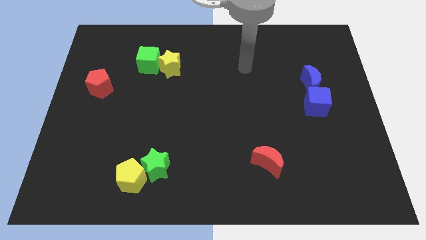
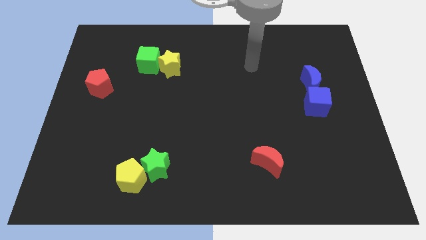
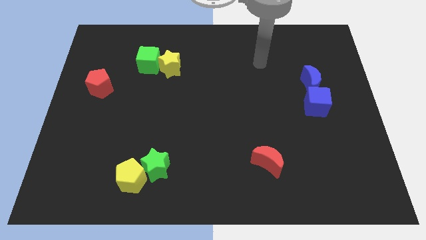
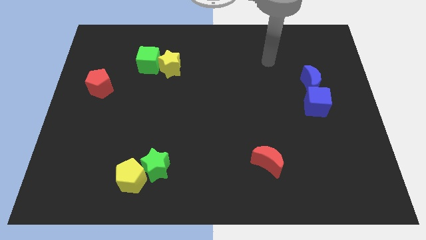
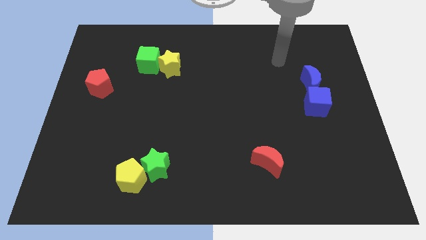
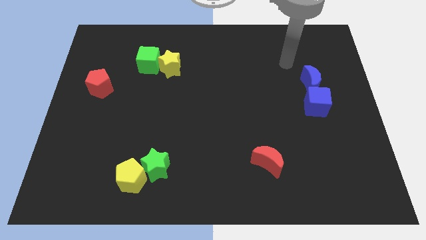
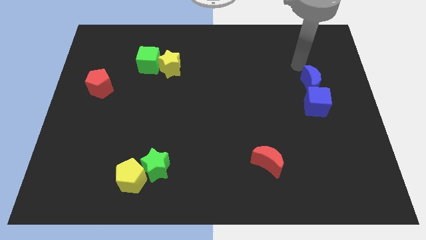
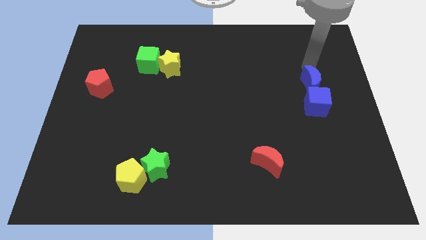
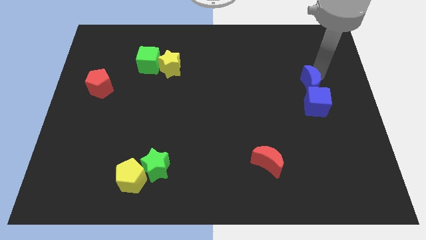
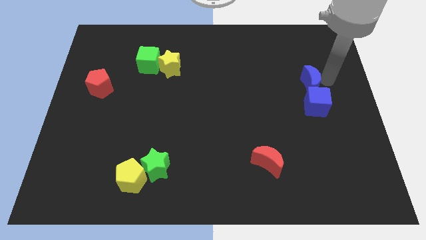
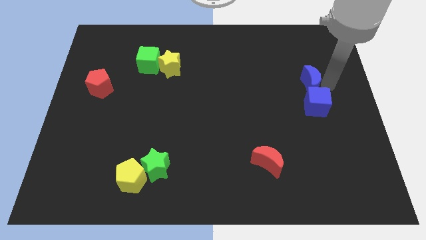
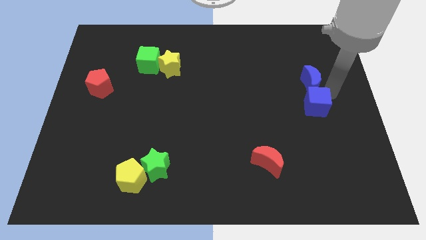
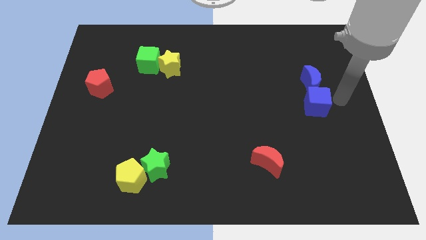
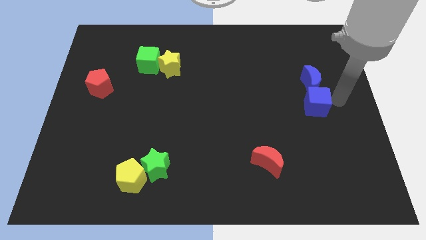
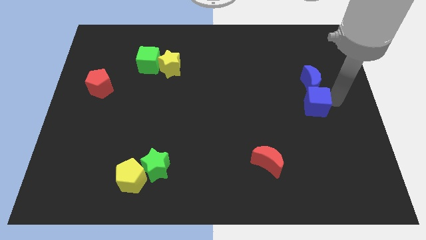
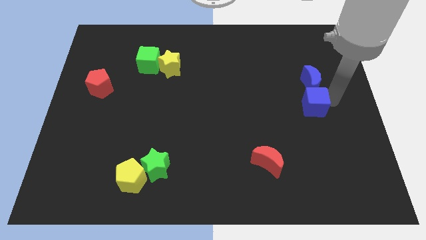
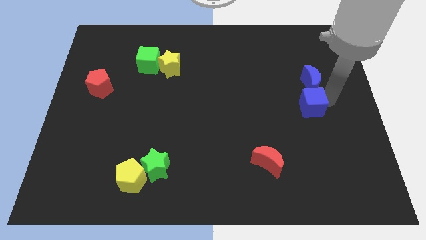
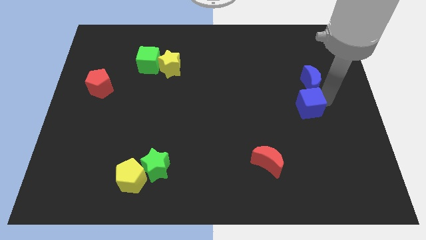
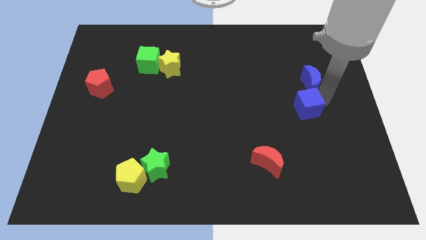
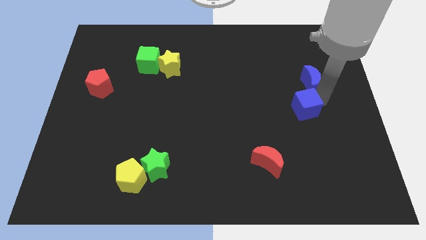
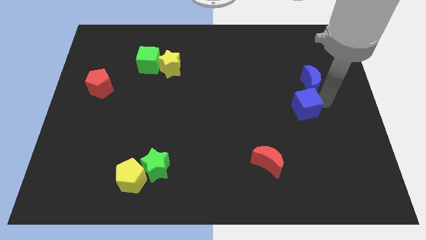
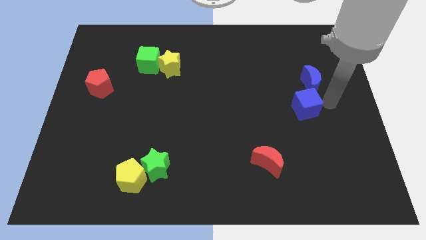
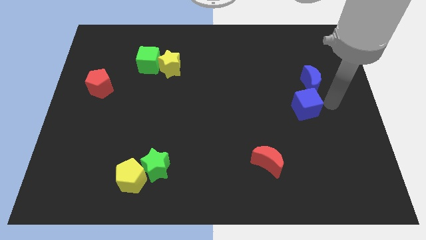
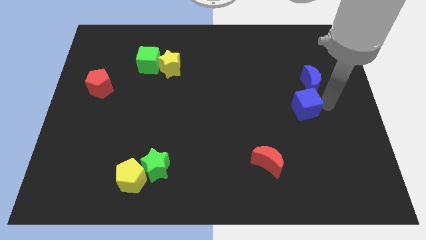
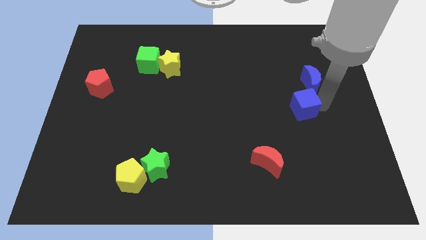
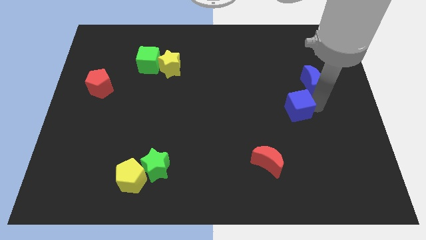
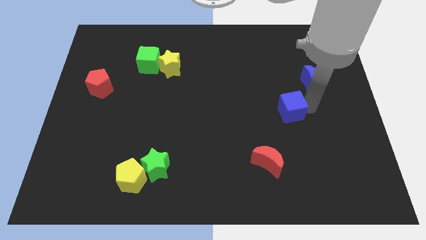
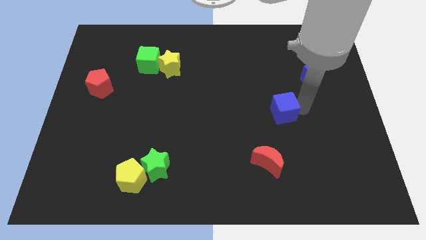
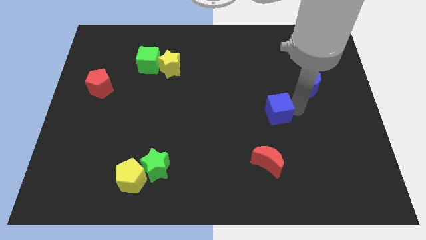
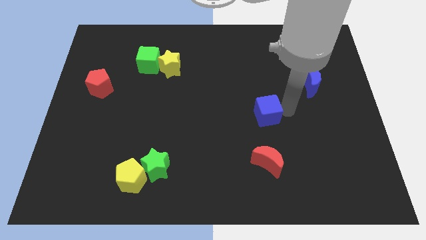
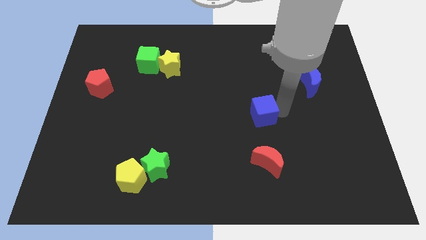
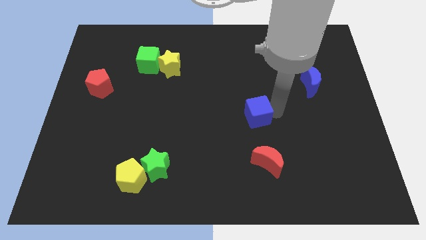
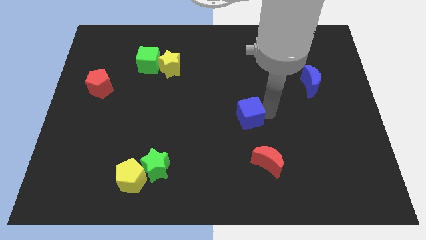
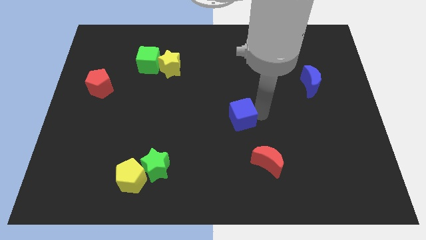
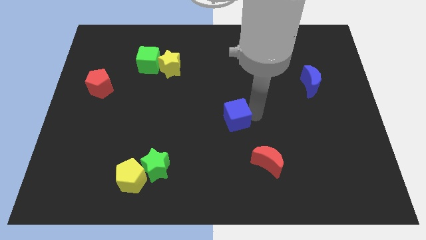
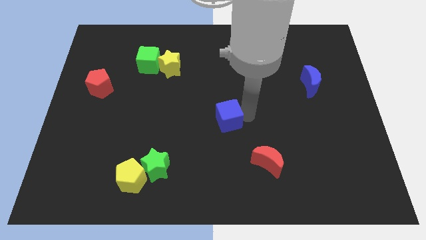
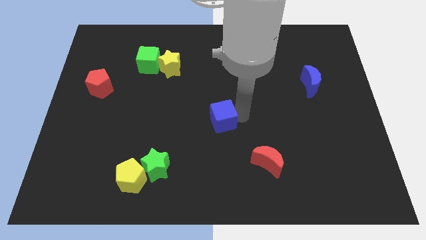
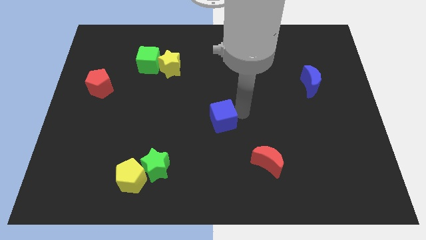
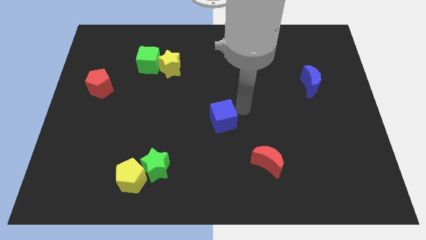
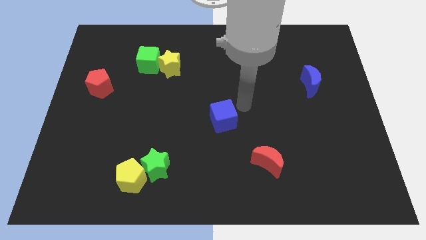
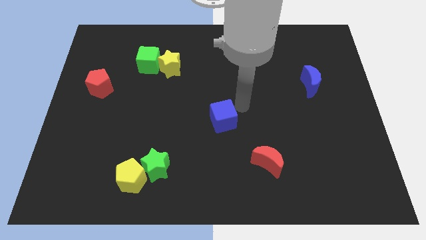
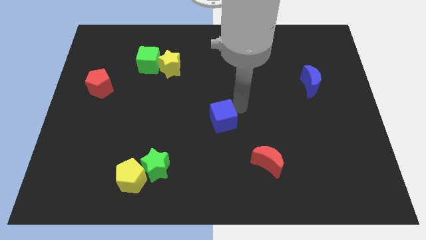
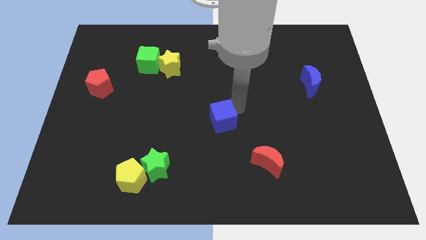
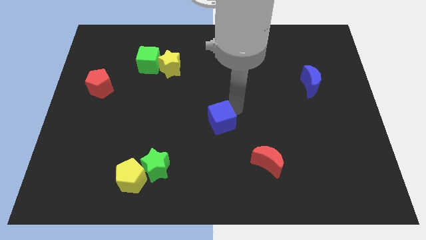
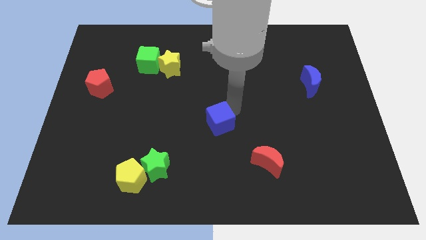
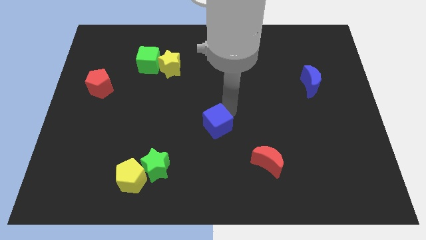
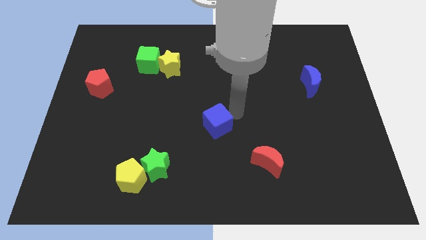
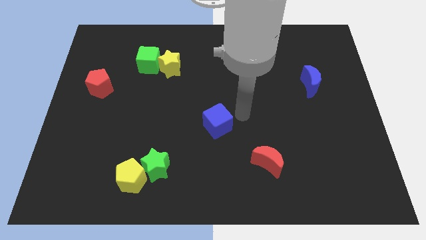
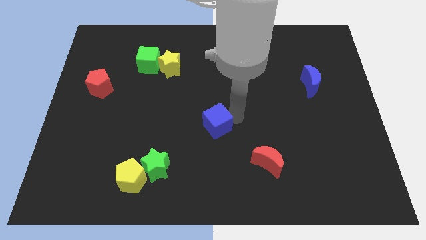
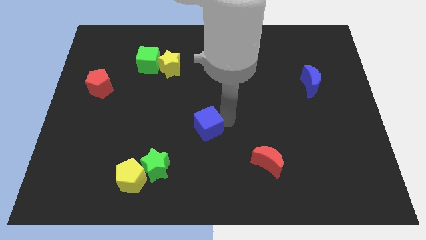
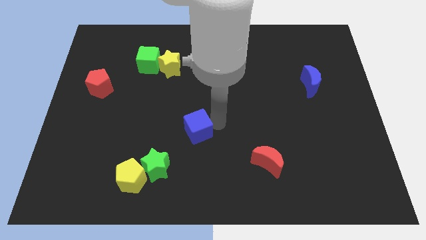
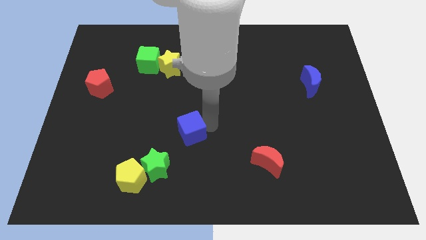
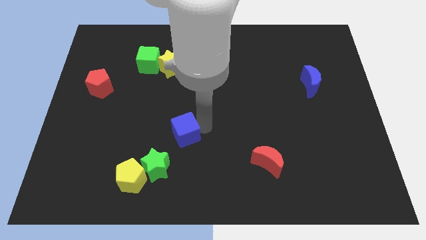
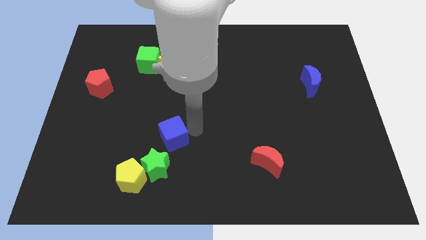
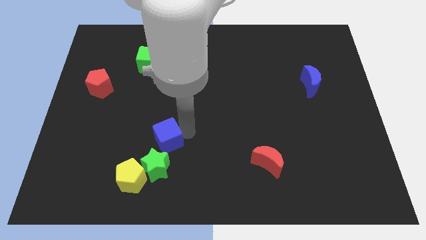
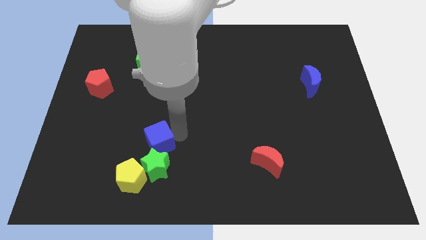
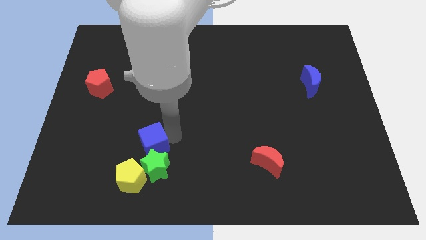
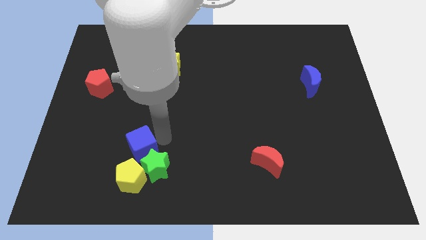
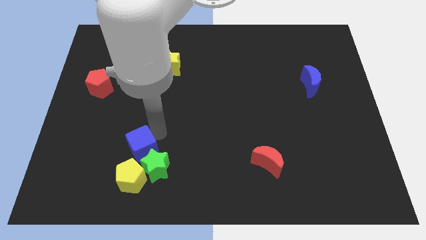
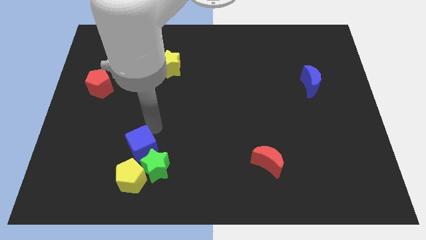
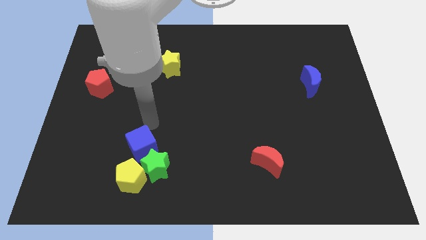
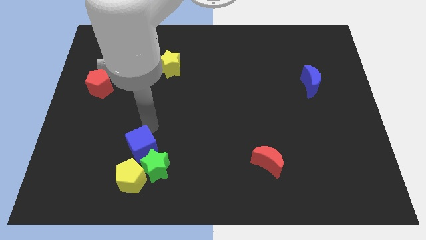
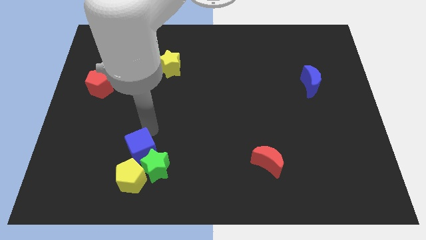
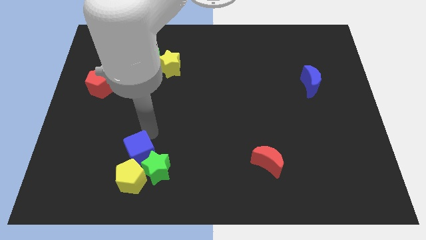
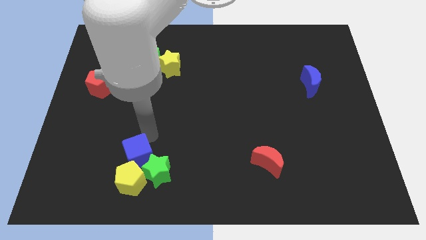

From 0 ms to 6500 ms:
put the blue cube towards the yellow pentagon
